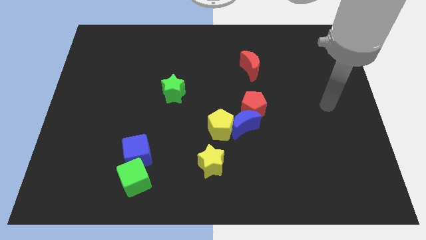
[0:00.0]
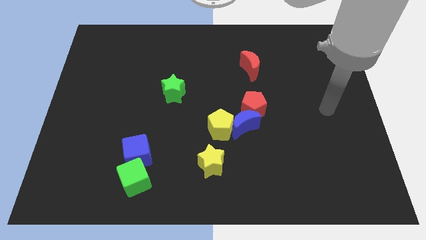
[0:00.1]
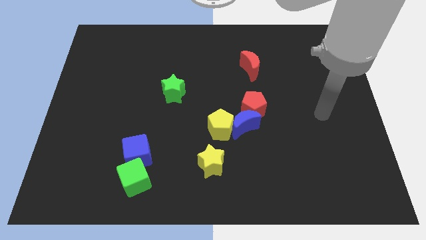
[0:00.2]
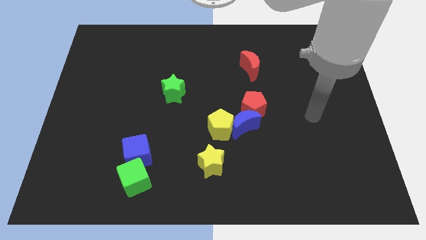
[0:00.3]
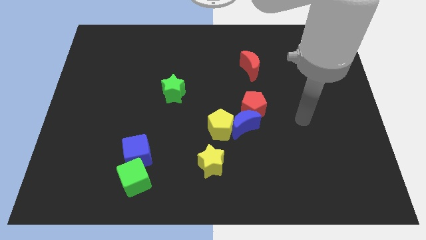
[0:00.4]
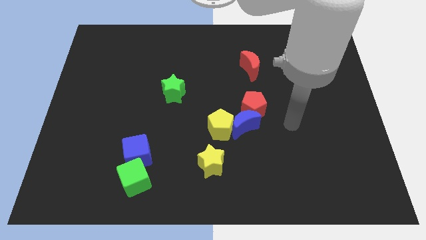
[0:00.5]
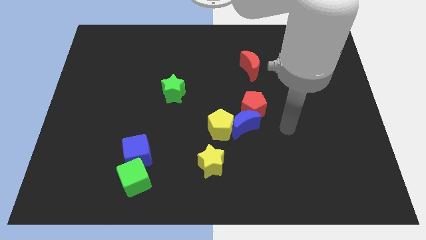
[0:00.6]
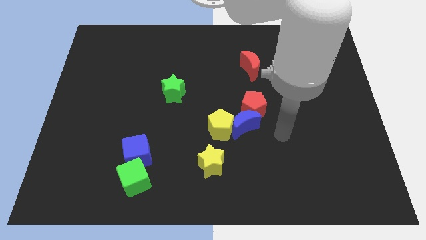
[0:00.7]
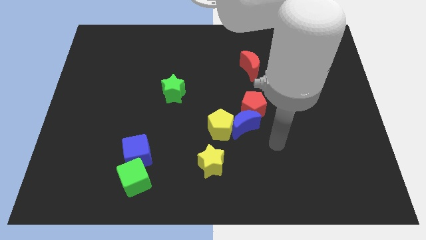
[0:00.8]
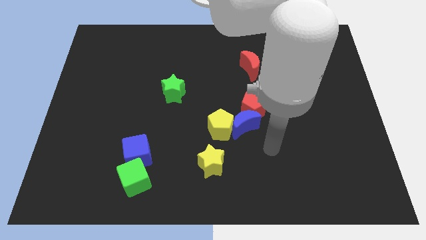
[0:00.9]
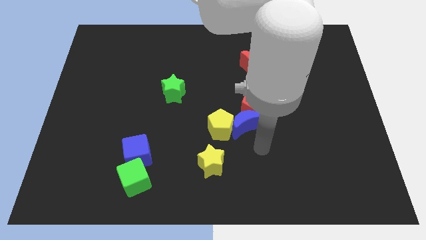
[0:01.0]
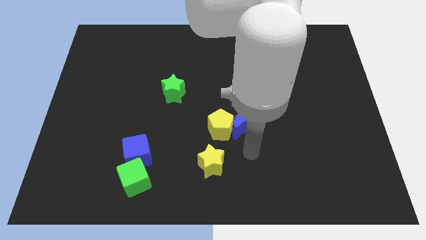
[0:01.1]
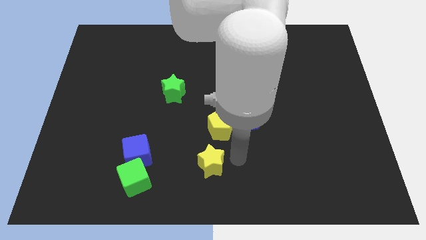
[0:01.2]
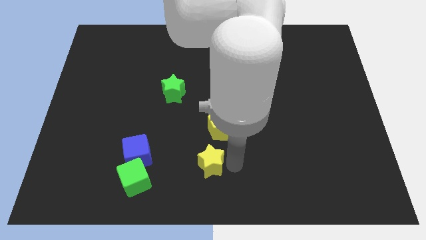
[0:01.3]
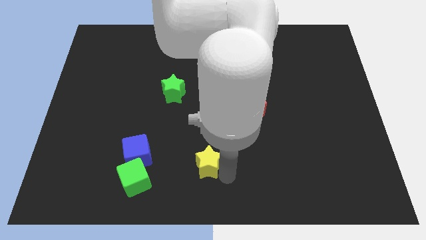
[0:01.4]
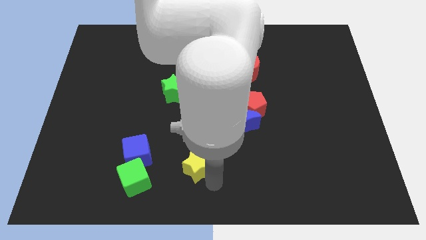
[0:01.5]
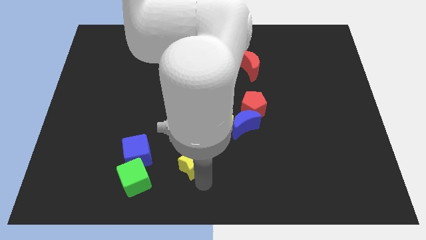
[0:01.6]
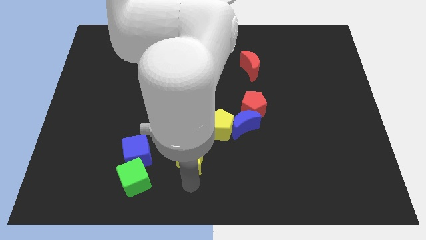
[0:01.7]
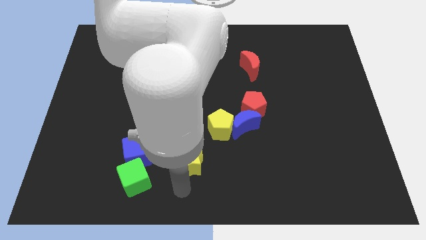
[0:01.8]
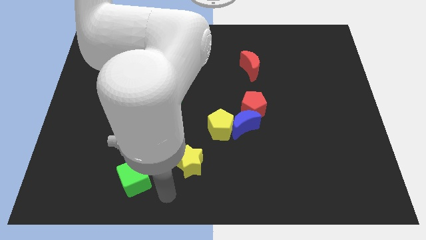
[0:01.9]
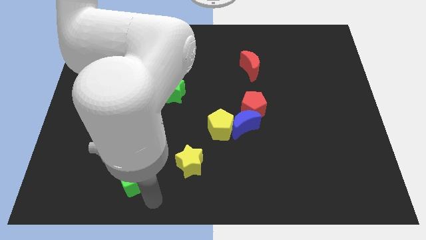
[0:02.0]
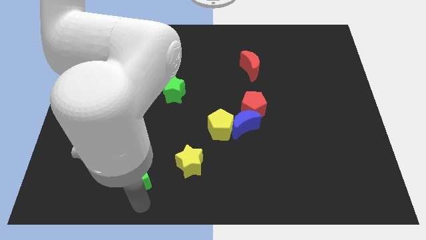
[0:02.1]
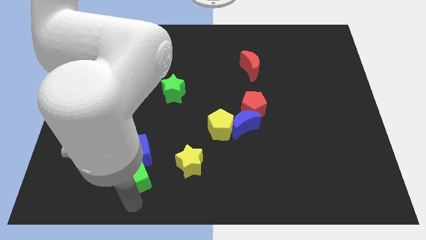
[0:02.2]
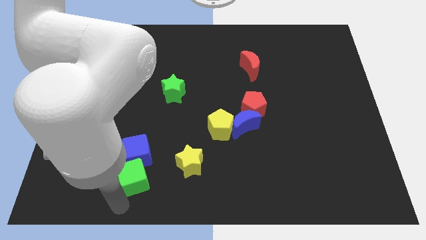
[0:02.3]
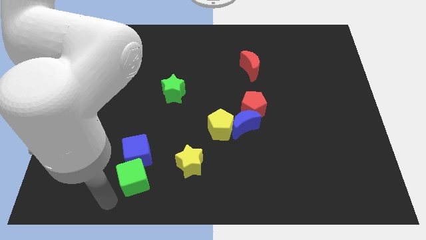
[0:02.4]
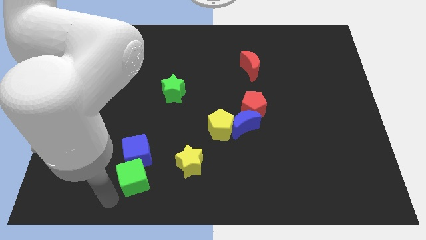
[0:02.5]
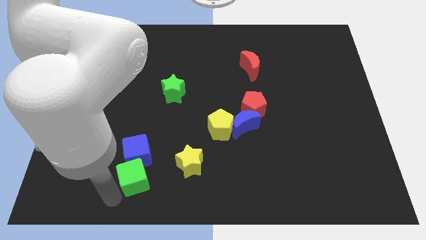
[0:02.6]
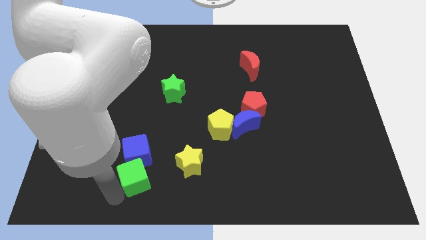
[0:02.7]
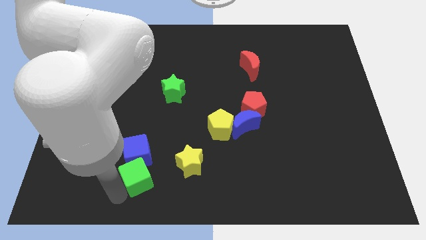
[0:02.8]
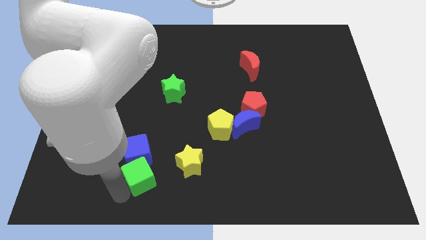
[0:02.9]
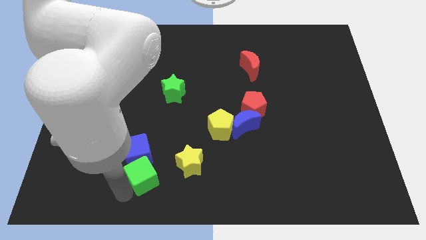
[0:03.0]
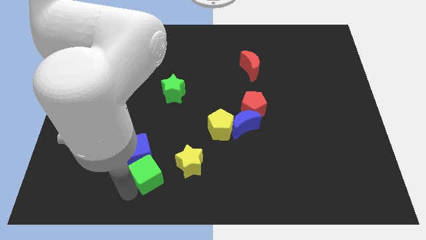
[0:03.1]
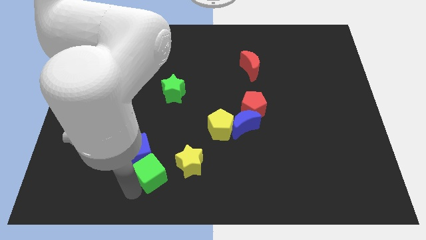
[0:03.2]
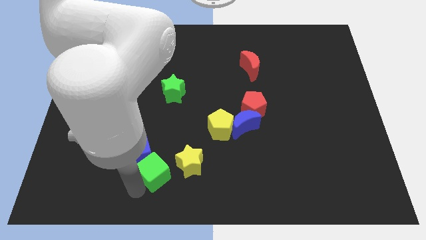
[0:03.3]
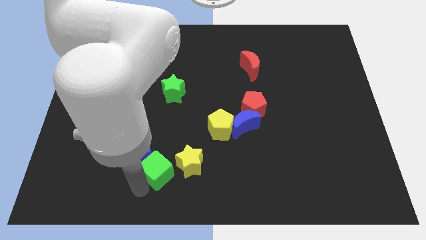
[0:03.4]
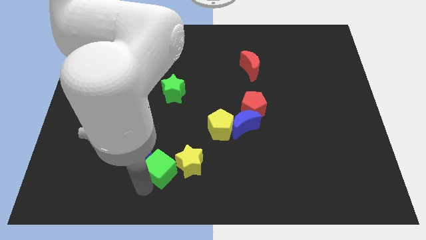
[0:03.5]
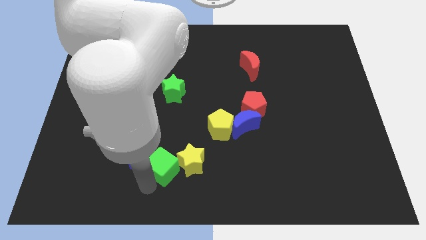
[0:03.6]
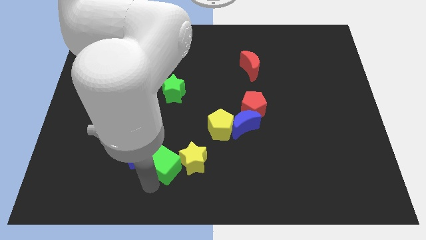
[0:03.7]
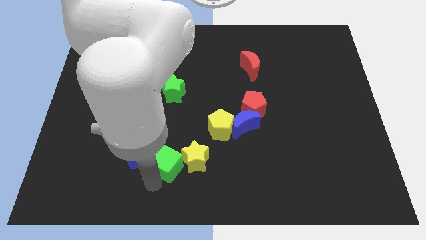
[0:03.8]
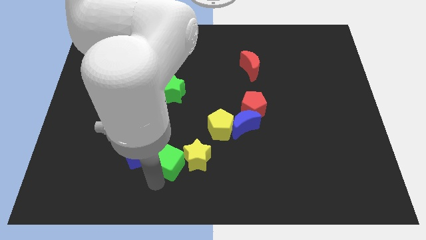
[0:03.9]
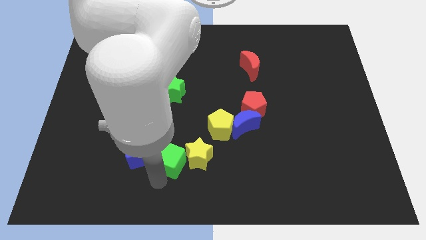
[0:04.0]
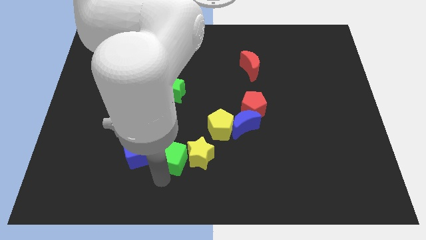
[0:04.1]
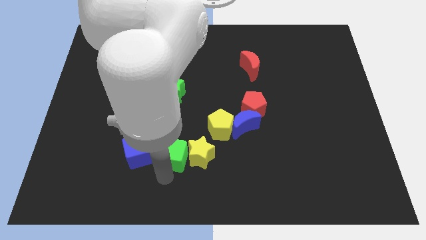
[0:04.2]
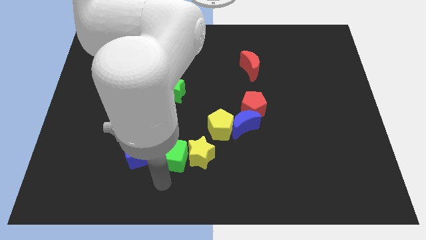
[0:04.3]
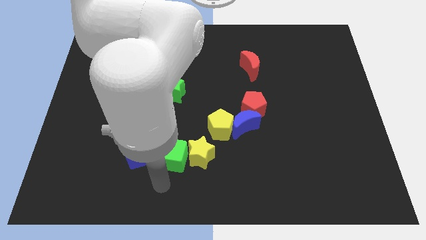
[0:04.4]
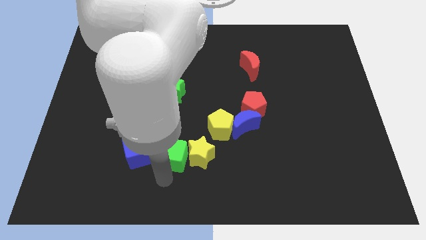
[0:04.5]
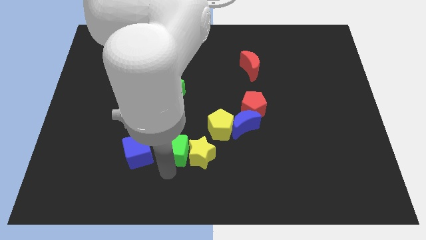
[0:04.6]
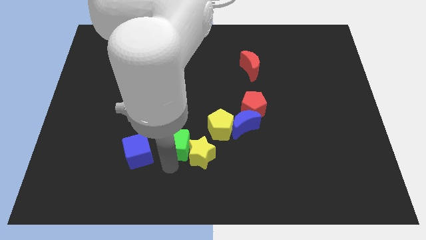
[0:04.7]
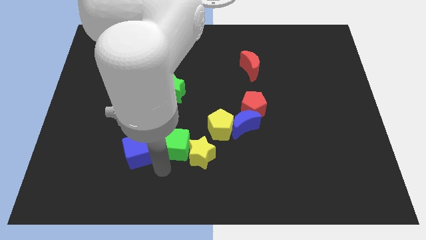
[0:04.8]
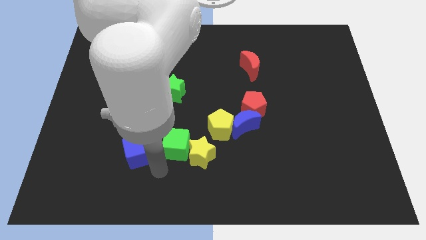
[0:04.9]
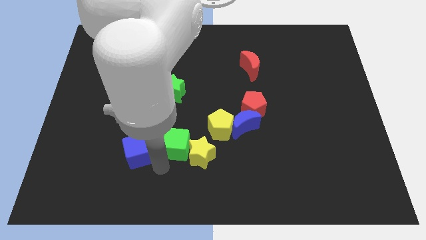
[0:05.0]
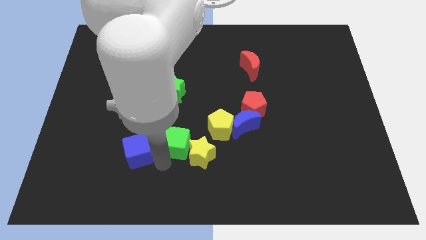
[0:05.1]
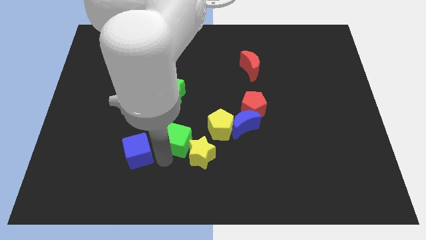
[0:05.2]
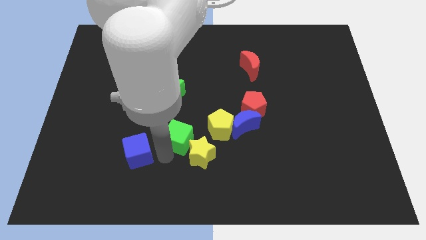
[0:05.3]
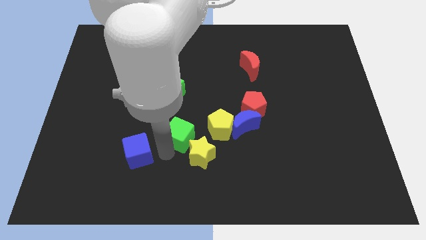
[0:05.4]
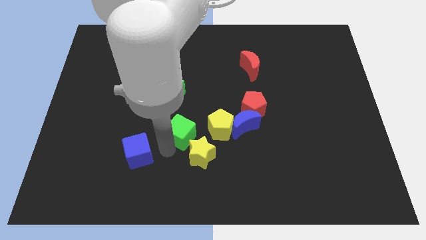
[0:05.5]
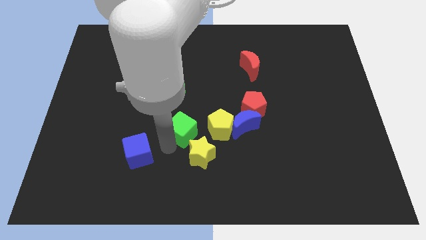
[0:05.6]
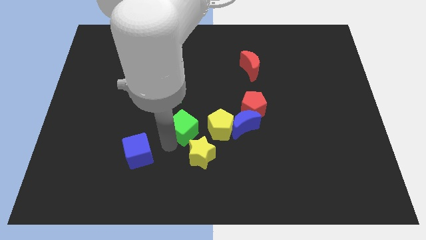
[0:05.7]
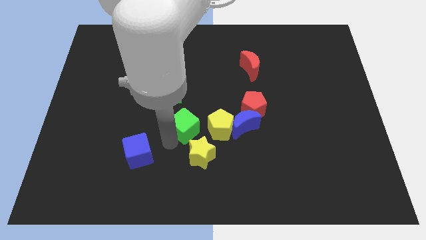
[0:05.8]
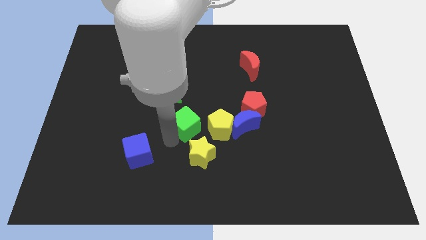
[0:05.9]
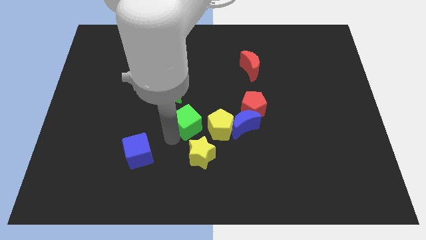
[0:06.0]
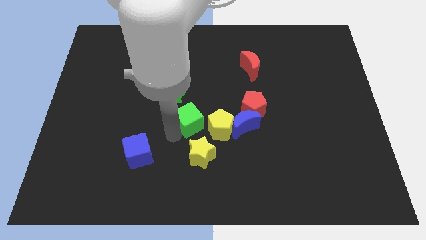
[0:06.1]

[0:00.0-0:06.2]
slide the green cube to the left side of the red pentagon
